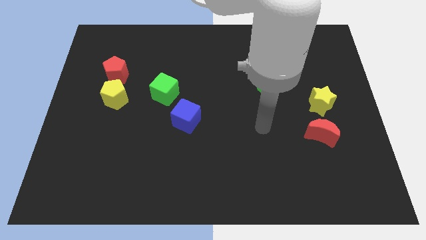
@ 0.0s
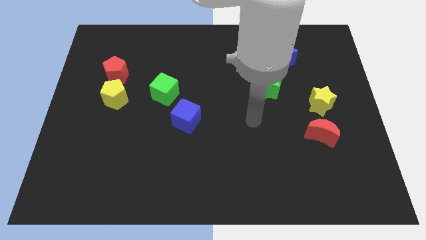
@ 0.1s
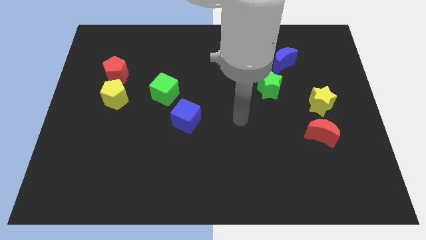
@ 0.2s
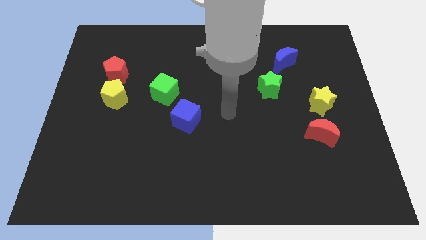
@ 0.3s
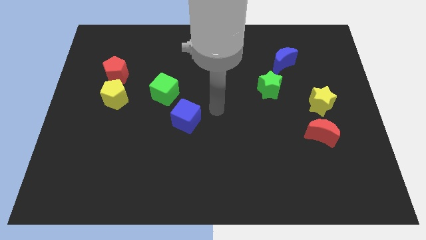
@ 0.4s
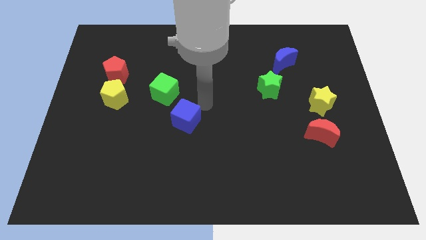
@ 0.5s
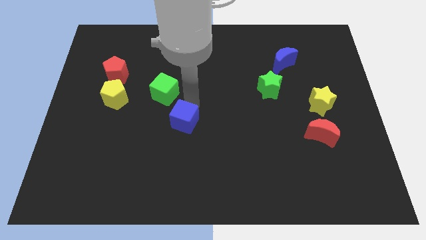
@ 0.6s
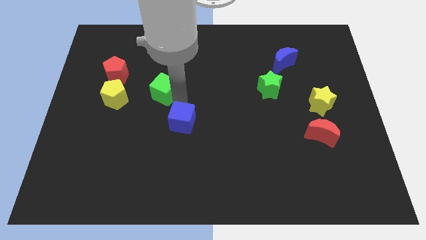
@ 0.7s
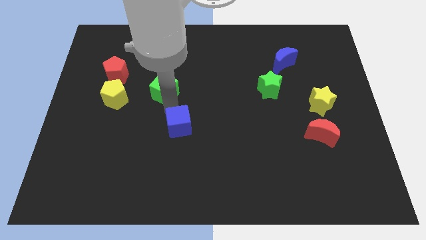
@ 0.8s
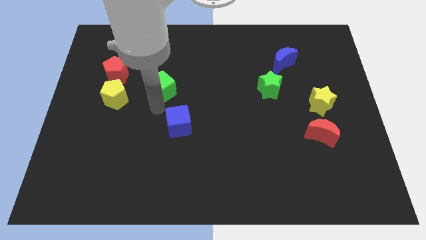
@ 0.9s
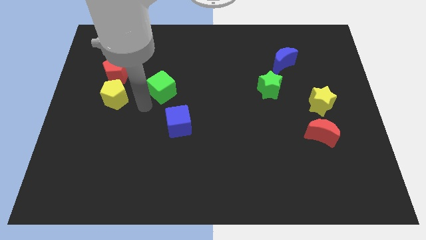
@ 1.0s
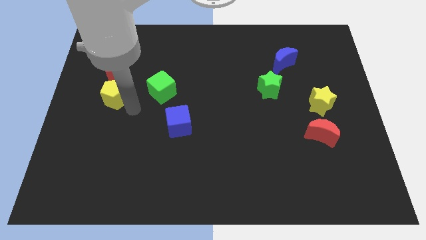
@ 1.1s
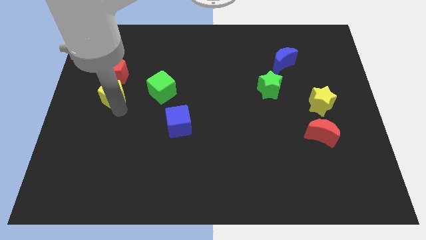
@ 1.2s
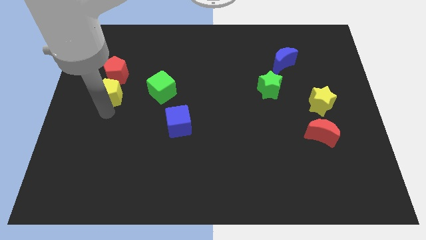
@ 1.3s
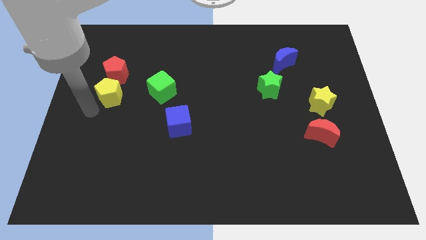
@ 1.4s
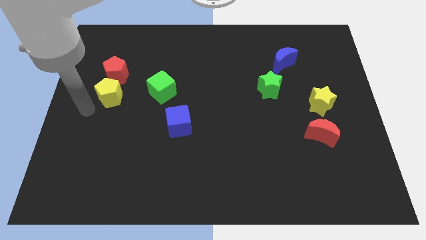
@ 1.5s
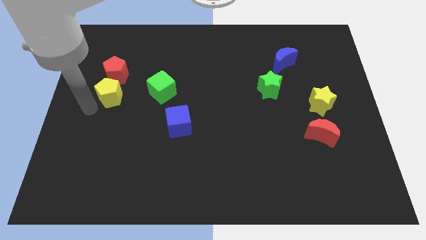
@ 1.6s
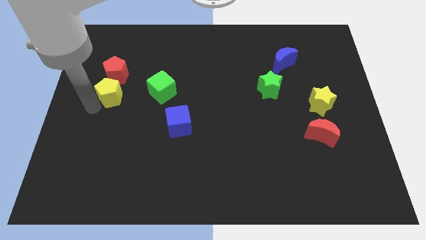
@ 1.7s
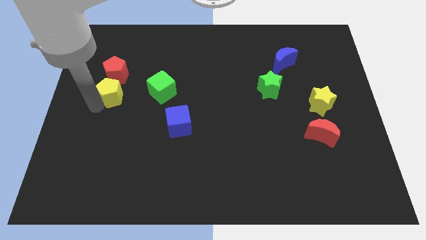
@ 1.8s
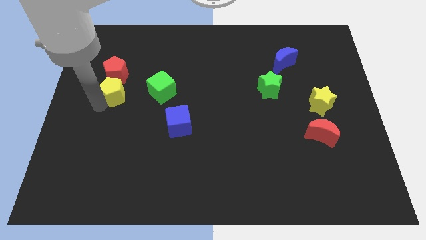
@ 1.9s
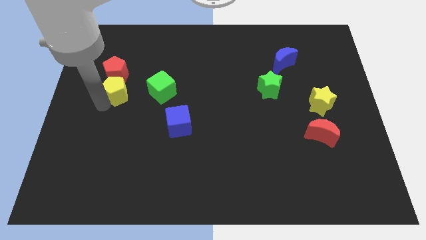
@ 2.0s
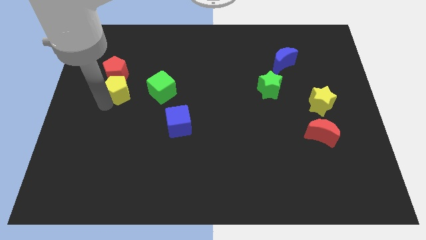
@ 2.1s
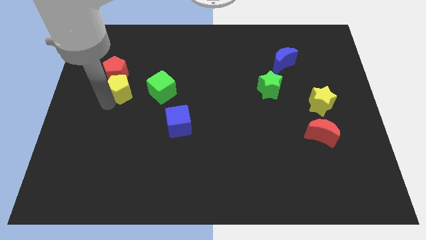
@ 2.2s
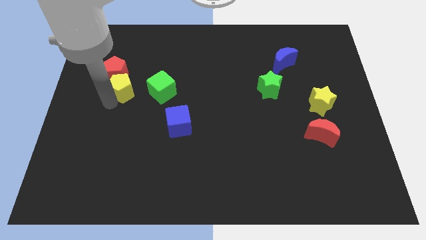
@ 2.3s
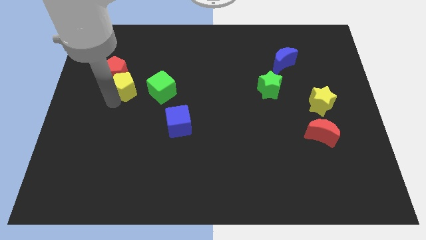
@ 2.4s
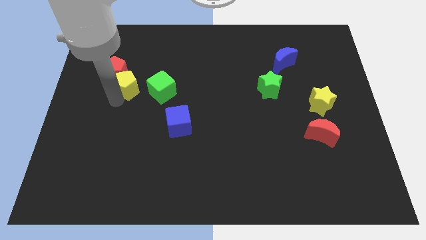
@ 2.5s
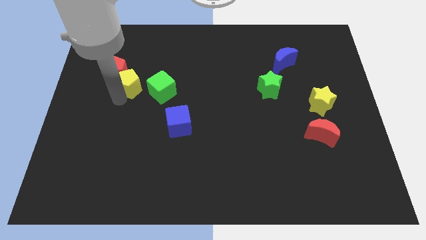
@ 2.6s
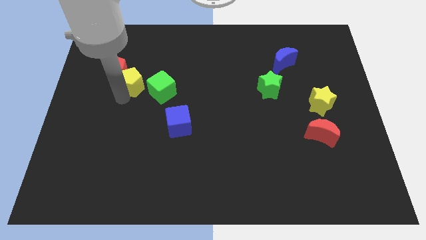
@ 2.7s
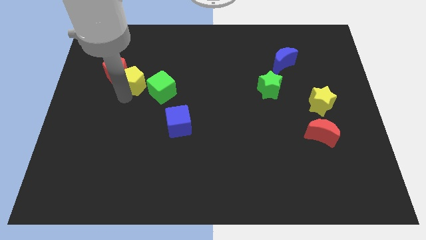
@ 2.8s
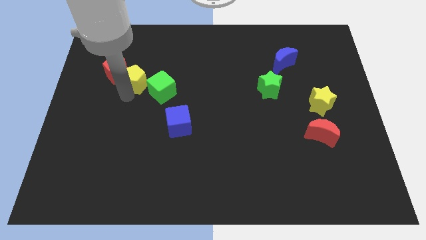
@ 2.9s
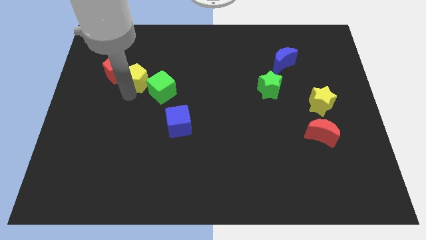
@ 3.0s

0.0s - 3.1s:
move the yellow pentagon a little upwards and then right

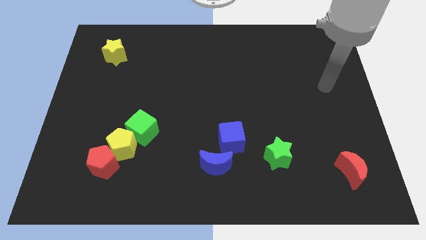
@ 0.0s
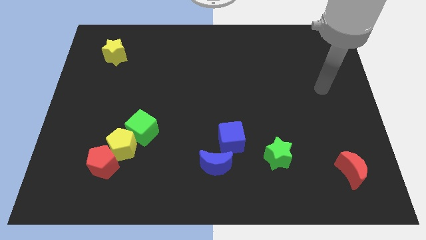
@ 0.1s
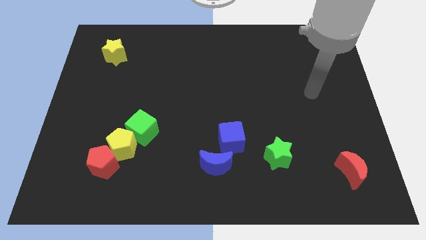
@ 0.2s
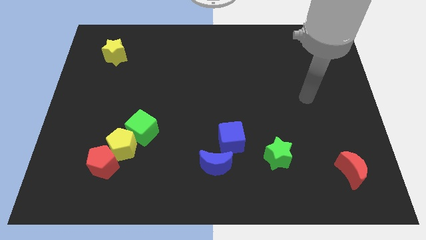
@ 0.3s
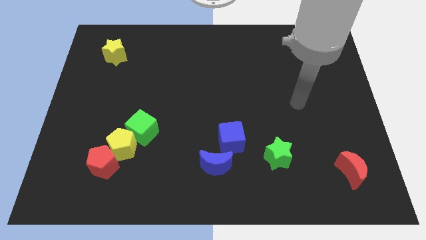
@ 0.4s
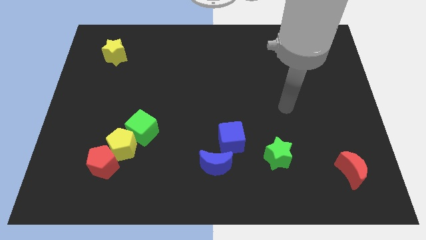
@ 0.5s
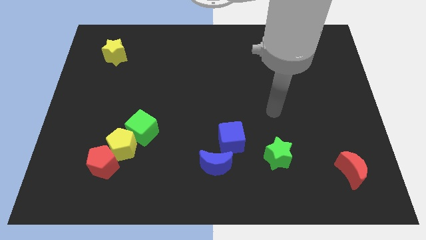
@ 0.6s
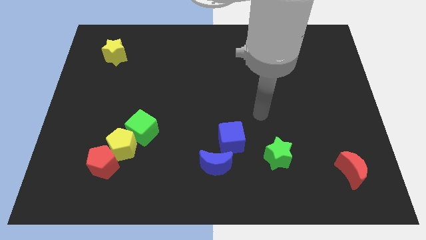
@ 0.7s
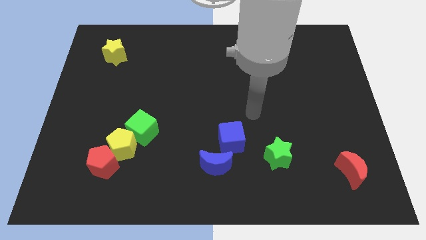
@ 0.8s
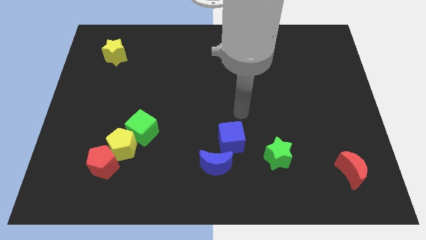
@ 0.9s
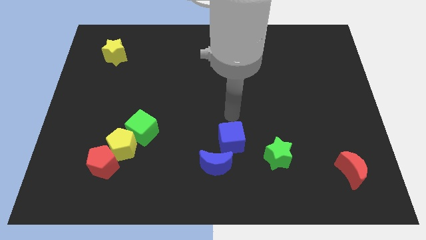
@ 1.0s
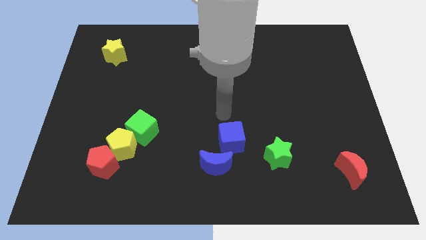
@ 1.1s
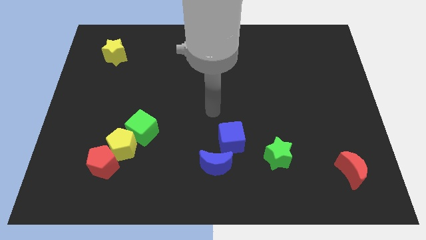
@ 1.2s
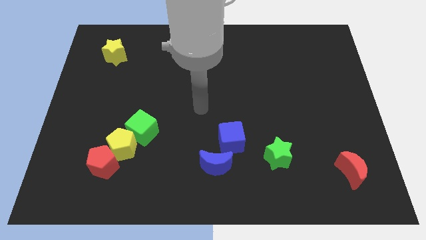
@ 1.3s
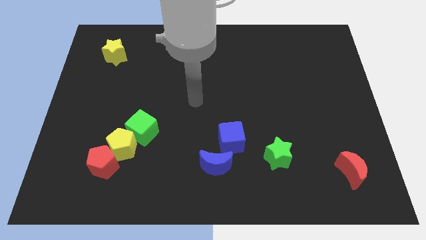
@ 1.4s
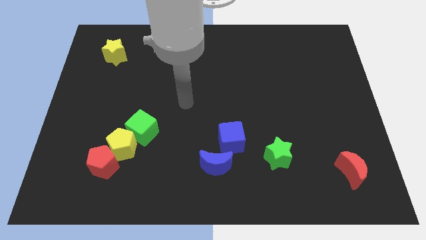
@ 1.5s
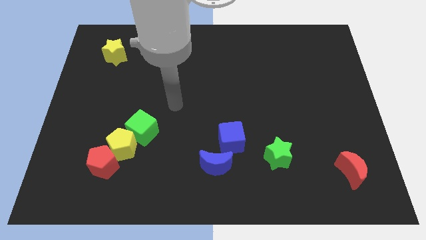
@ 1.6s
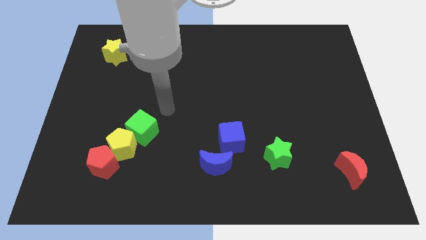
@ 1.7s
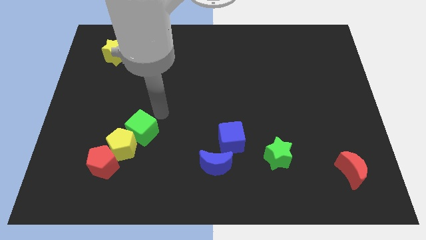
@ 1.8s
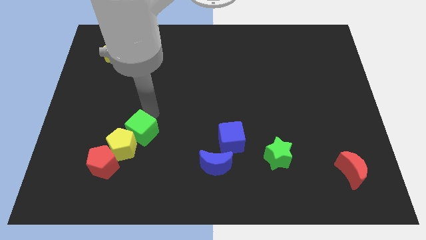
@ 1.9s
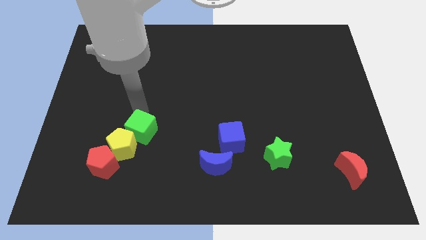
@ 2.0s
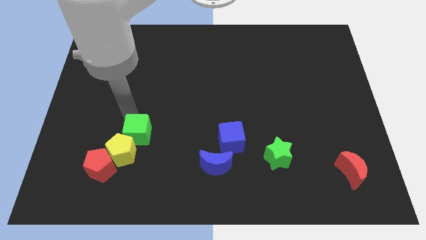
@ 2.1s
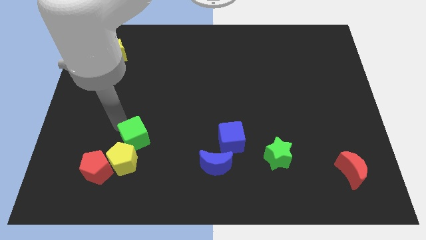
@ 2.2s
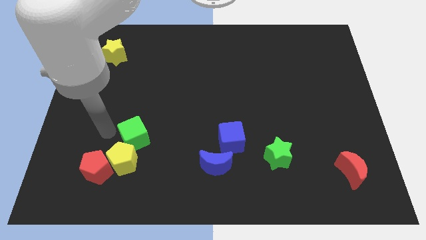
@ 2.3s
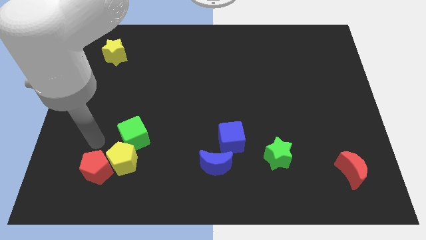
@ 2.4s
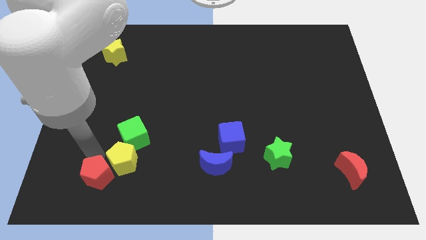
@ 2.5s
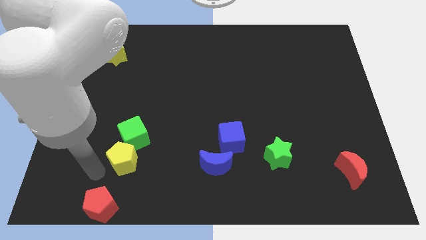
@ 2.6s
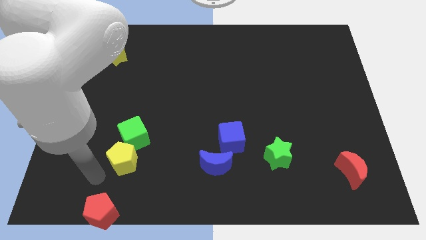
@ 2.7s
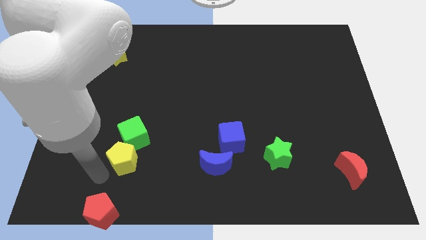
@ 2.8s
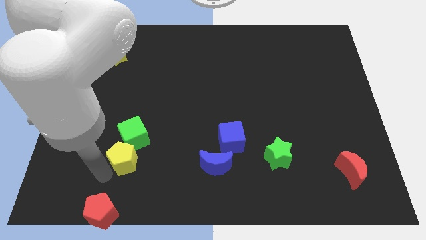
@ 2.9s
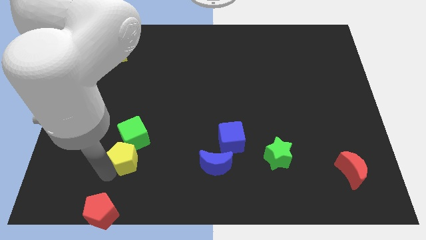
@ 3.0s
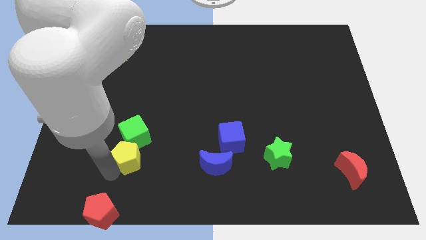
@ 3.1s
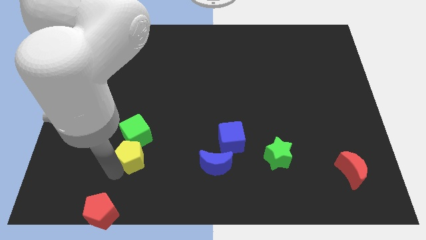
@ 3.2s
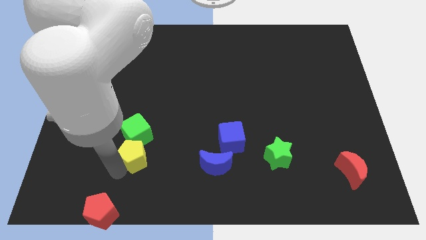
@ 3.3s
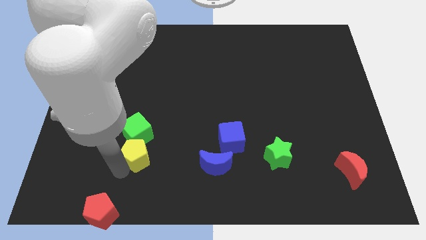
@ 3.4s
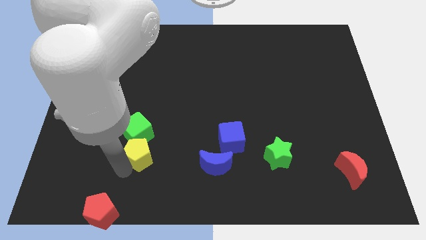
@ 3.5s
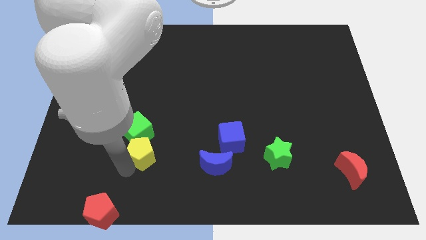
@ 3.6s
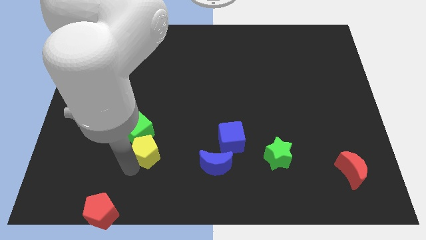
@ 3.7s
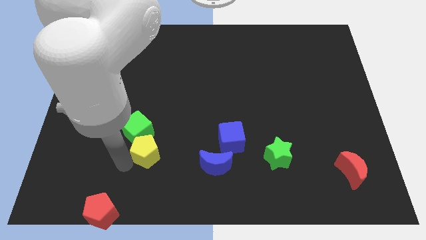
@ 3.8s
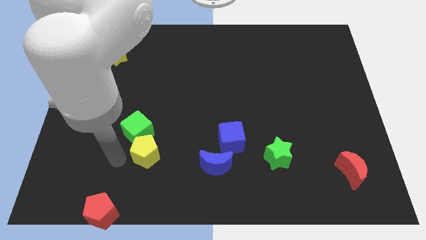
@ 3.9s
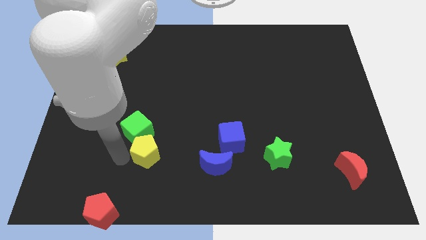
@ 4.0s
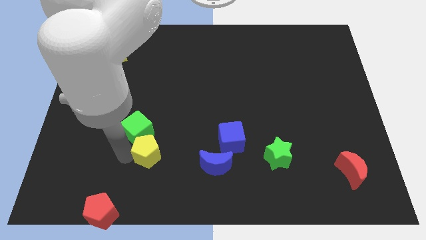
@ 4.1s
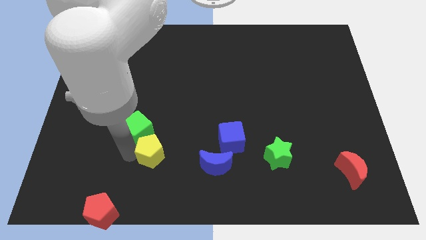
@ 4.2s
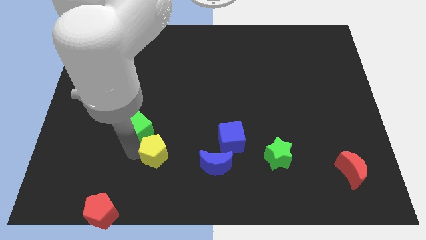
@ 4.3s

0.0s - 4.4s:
slightly slide the yellow pentagon right

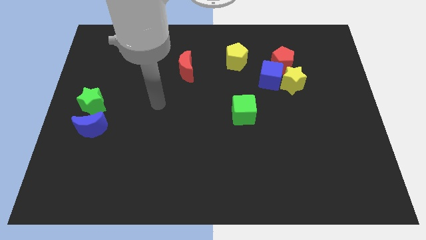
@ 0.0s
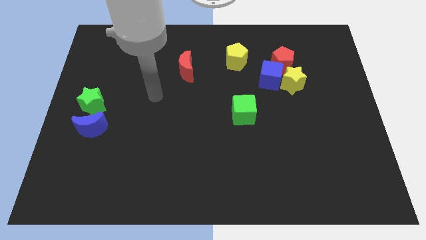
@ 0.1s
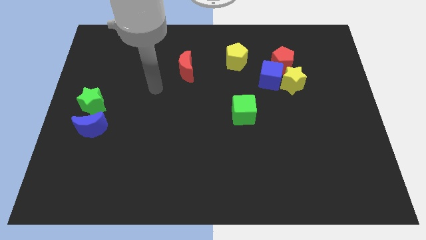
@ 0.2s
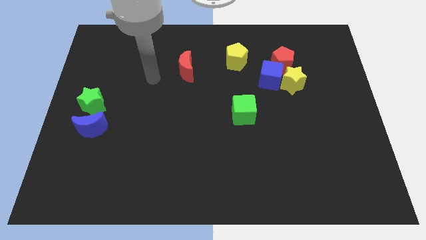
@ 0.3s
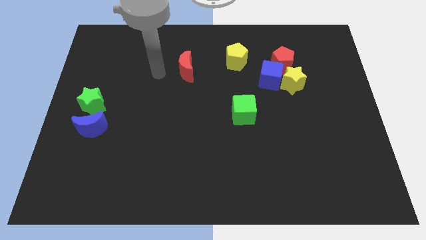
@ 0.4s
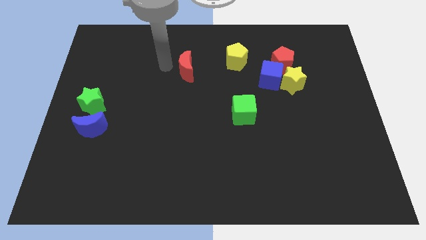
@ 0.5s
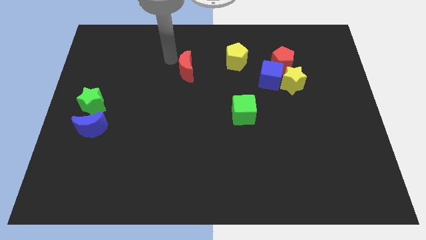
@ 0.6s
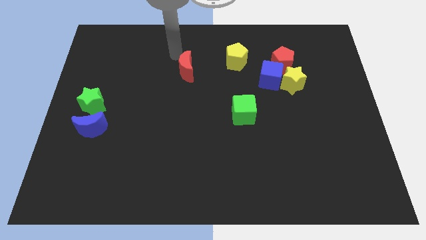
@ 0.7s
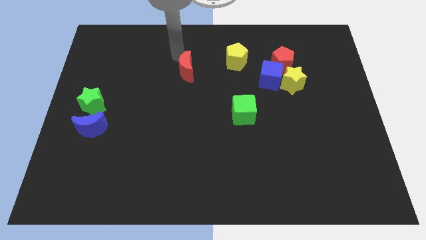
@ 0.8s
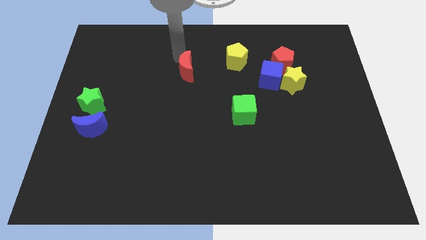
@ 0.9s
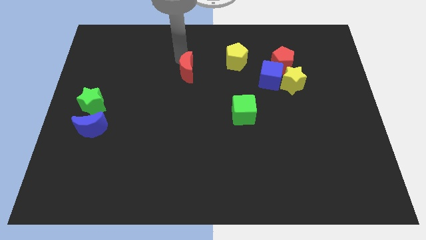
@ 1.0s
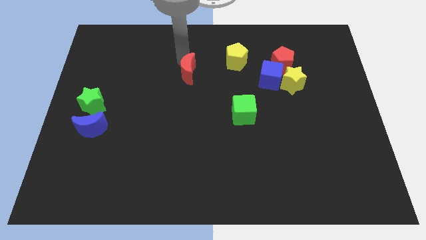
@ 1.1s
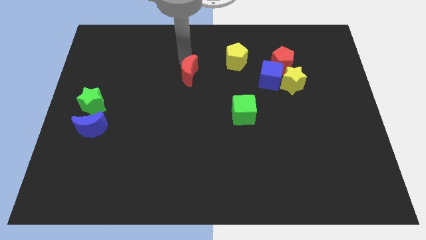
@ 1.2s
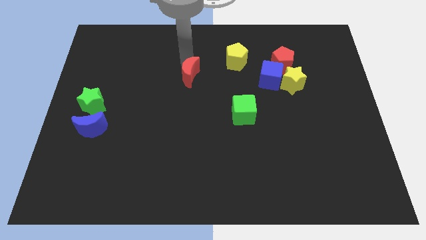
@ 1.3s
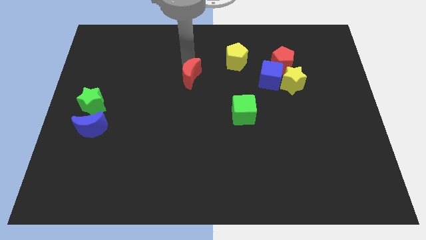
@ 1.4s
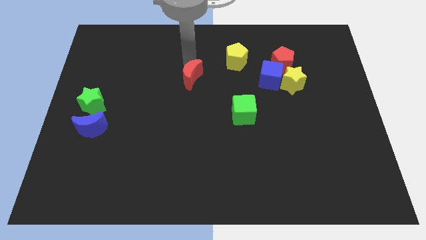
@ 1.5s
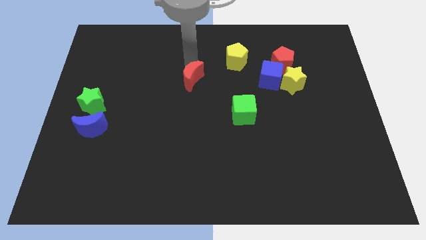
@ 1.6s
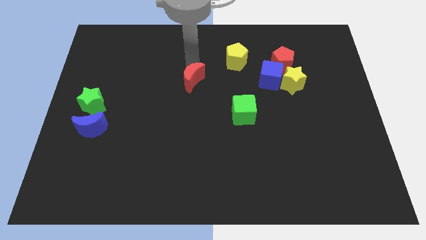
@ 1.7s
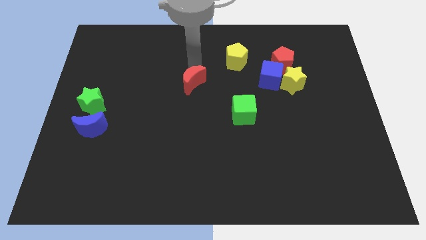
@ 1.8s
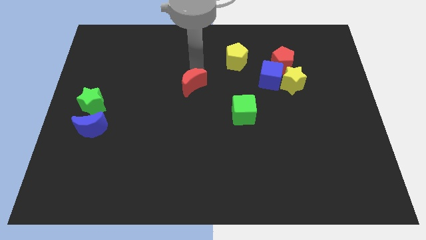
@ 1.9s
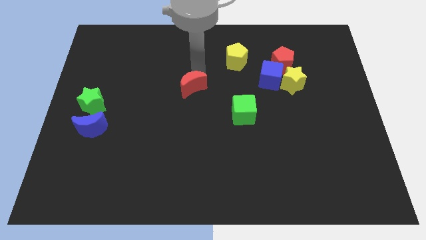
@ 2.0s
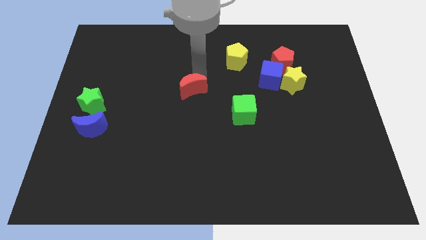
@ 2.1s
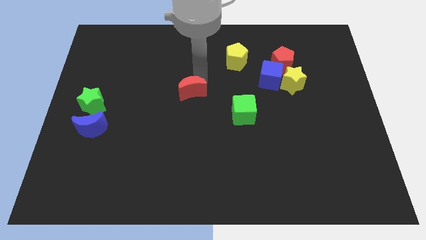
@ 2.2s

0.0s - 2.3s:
slide the red moon downwards a little bit
